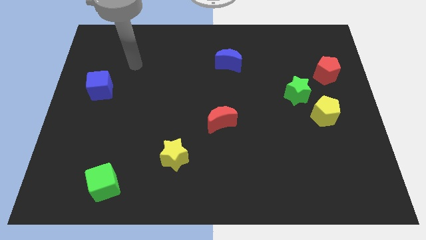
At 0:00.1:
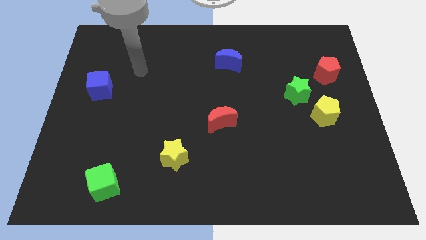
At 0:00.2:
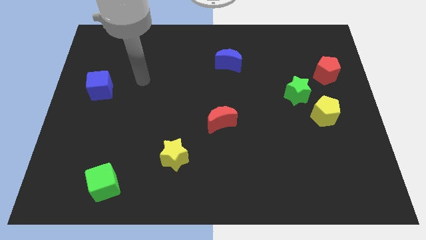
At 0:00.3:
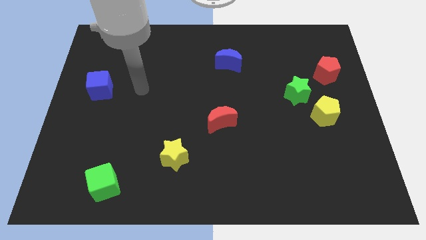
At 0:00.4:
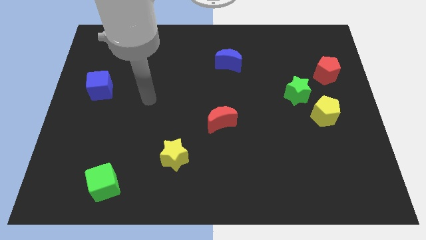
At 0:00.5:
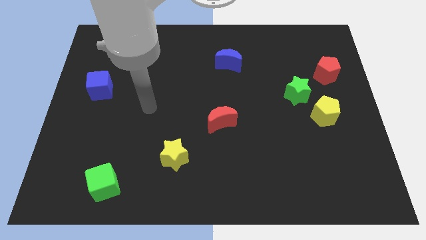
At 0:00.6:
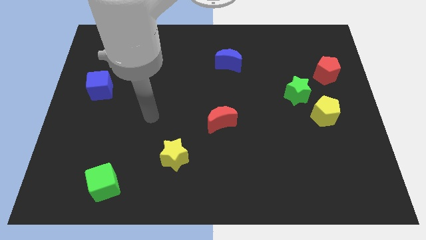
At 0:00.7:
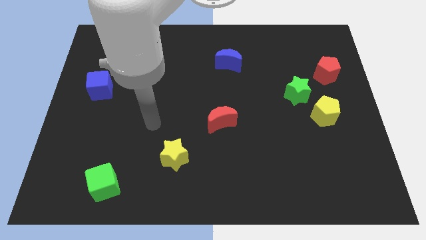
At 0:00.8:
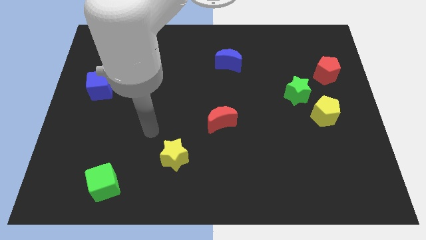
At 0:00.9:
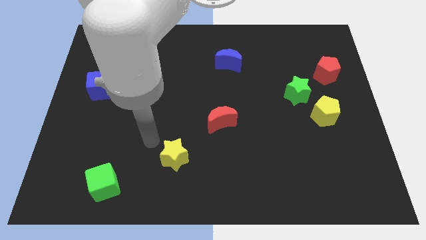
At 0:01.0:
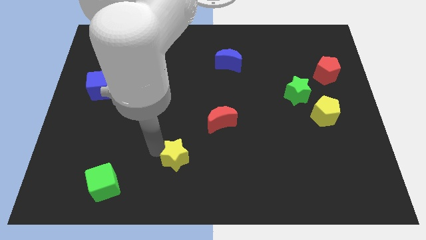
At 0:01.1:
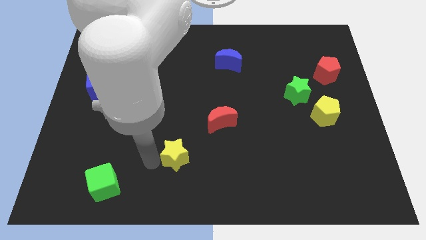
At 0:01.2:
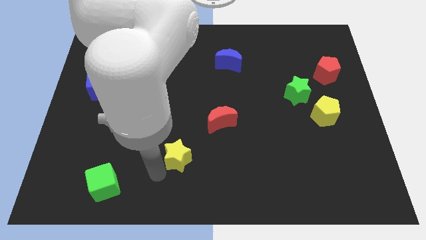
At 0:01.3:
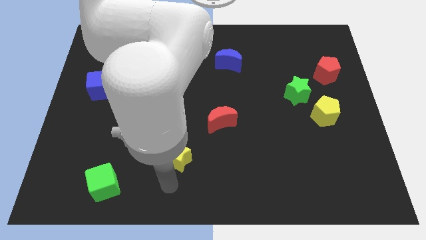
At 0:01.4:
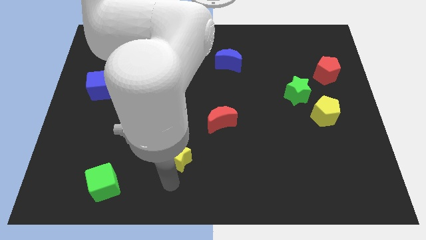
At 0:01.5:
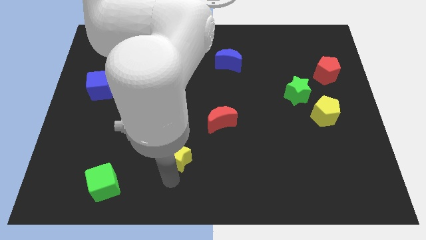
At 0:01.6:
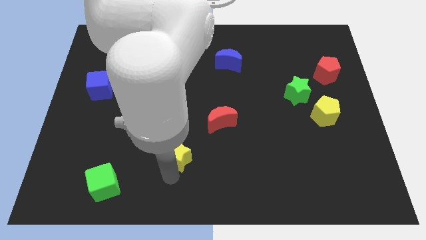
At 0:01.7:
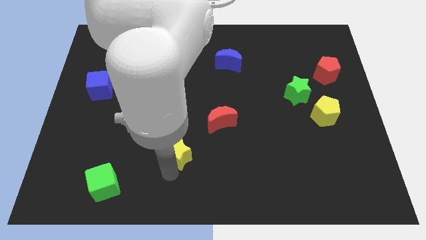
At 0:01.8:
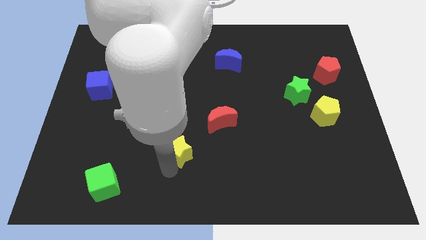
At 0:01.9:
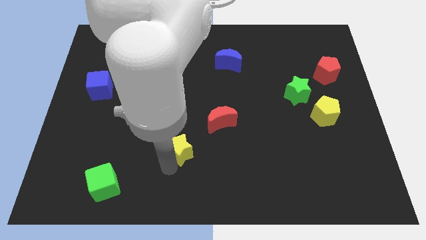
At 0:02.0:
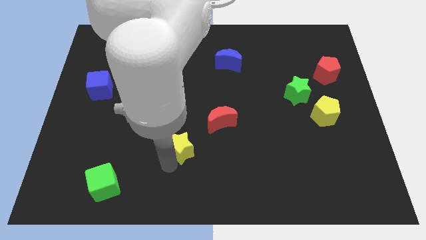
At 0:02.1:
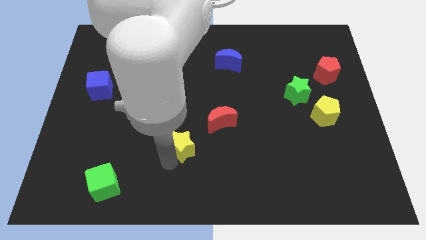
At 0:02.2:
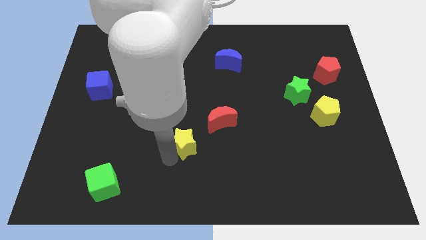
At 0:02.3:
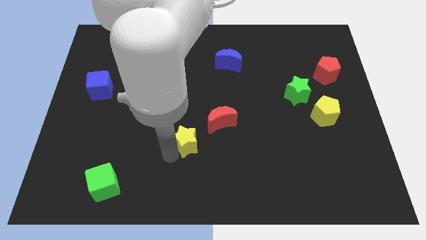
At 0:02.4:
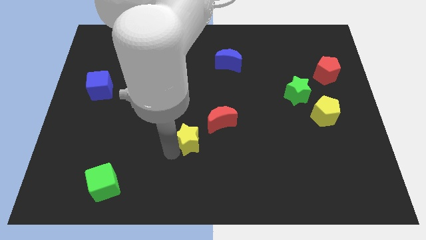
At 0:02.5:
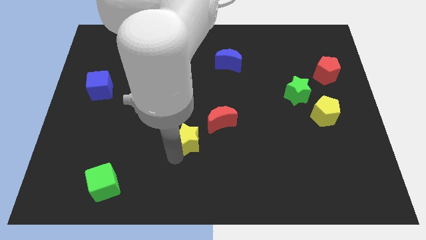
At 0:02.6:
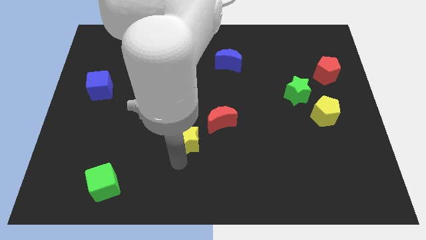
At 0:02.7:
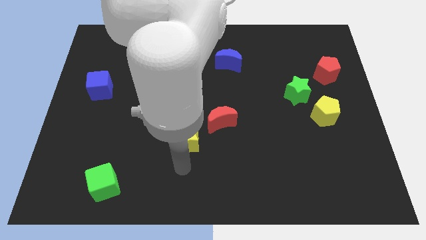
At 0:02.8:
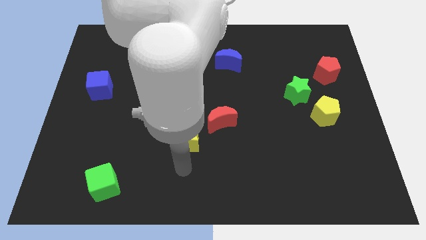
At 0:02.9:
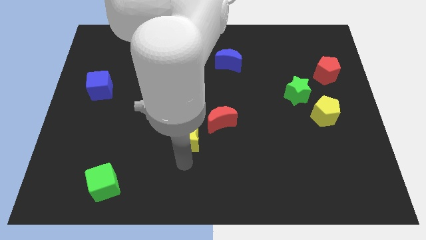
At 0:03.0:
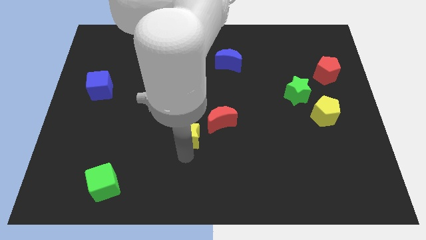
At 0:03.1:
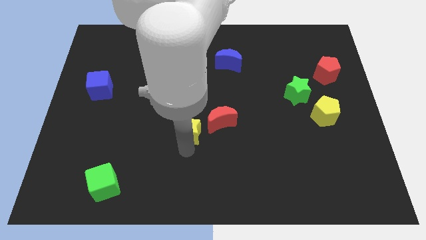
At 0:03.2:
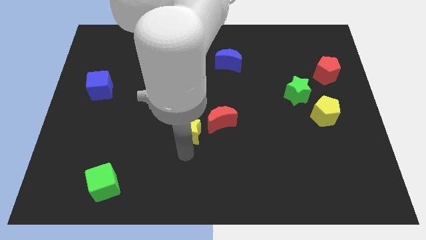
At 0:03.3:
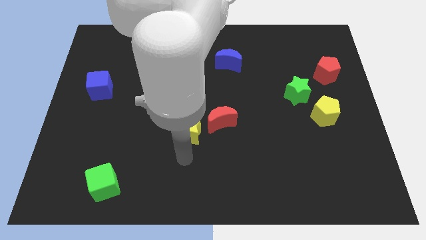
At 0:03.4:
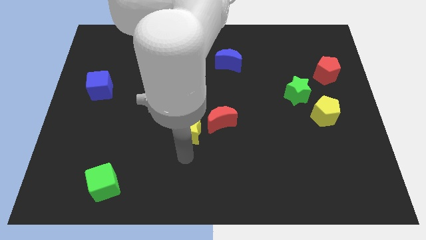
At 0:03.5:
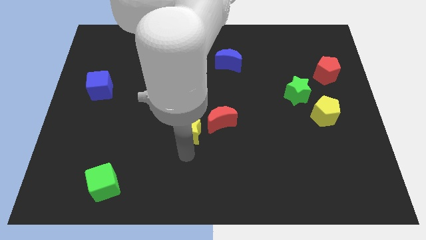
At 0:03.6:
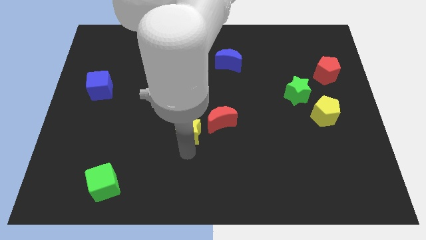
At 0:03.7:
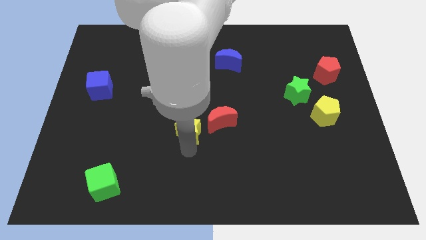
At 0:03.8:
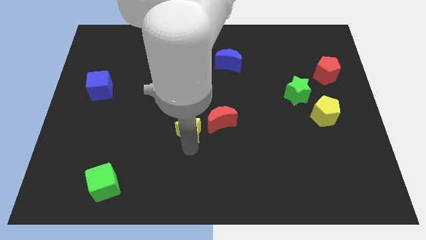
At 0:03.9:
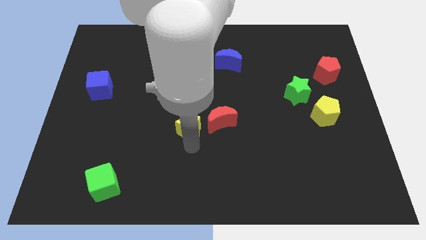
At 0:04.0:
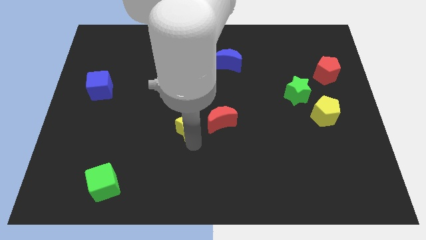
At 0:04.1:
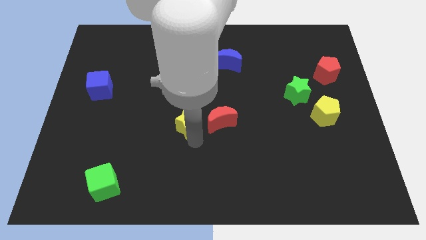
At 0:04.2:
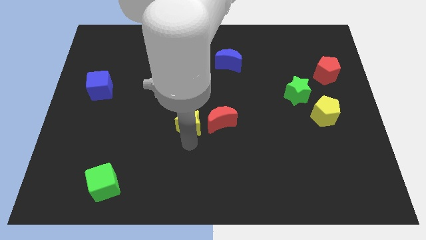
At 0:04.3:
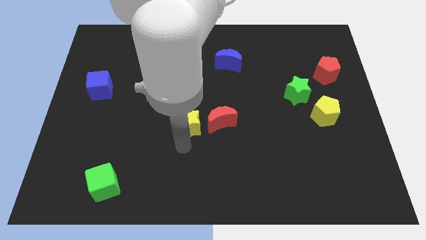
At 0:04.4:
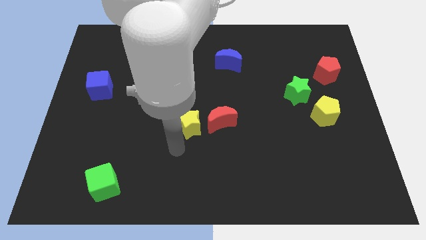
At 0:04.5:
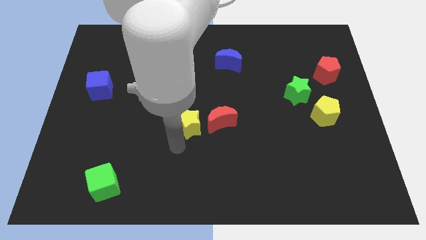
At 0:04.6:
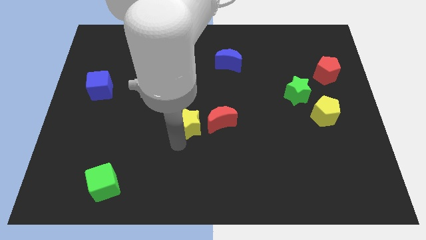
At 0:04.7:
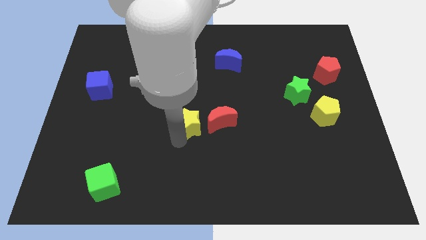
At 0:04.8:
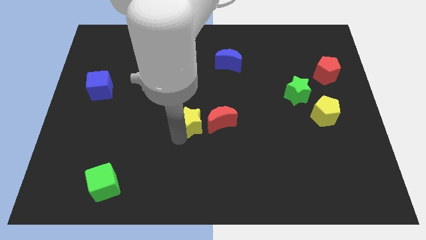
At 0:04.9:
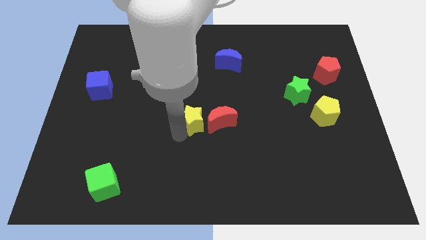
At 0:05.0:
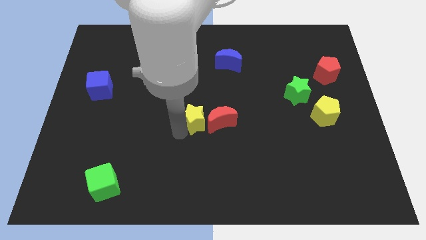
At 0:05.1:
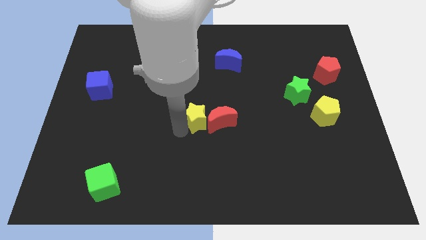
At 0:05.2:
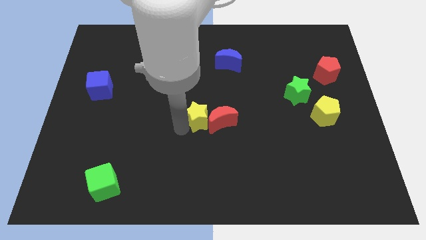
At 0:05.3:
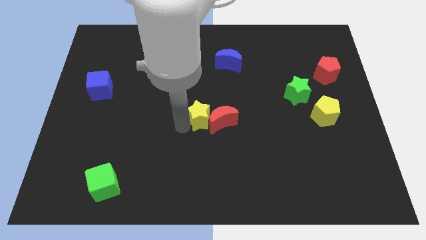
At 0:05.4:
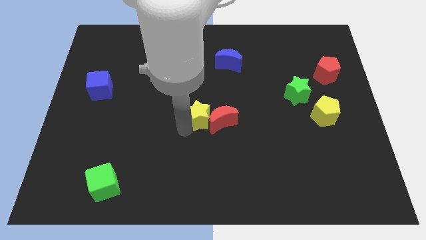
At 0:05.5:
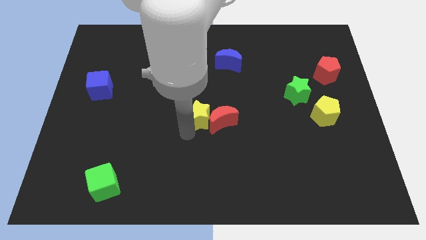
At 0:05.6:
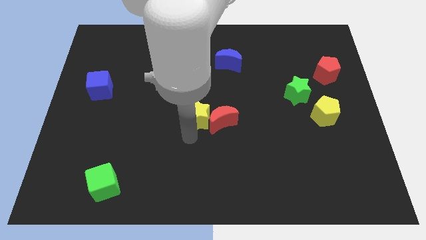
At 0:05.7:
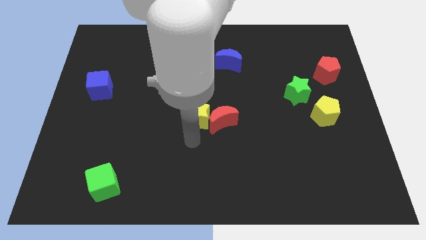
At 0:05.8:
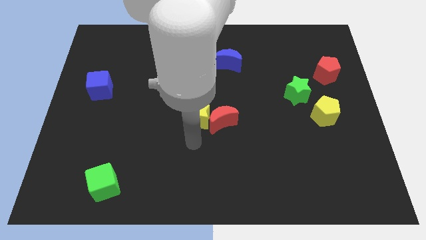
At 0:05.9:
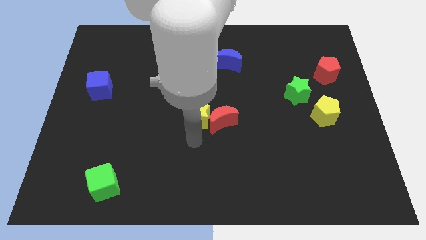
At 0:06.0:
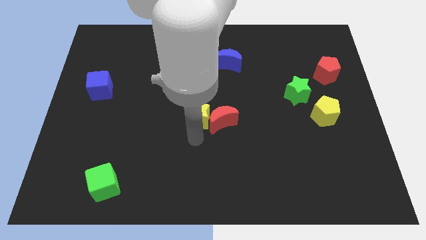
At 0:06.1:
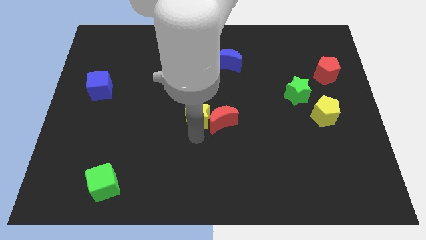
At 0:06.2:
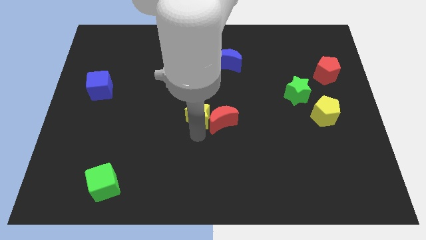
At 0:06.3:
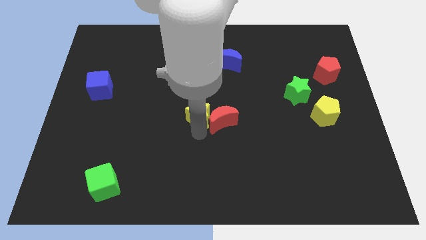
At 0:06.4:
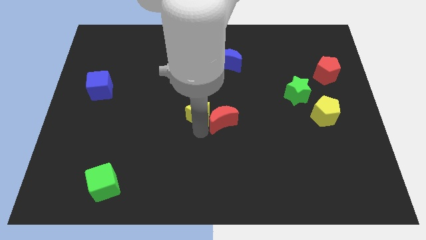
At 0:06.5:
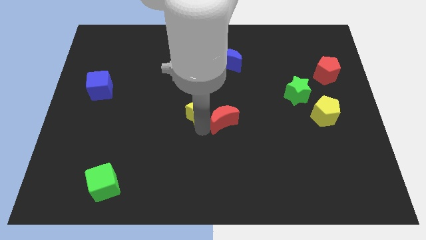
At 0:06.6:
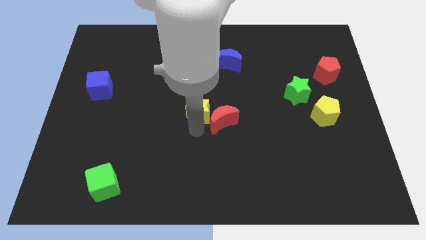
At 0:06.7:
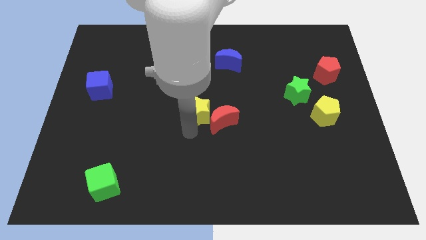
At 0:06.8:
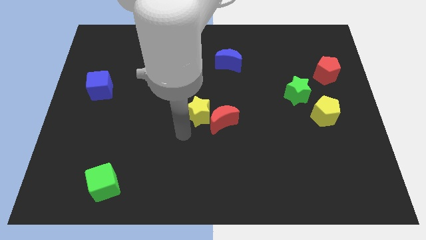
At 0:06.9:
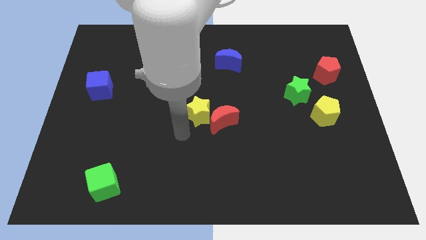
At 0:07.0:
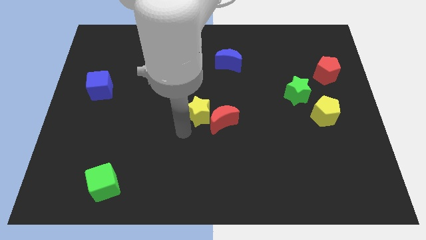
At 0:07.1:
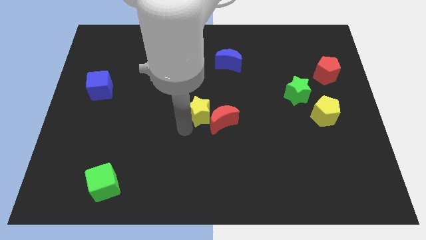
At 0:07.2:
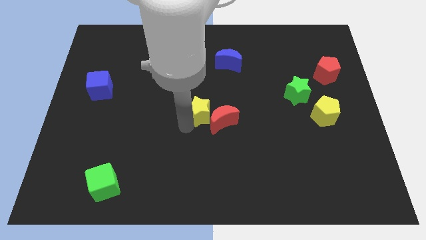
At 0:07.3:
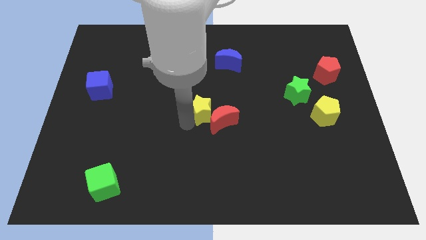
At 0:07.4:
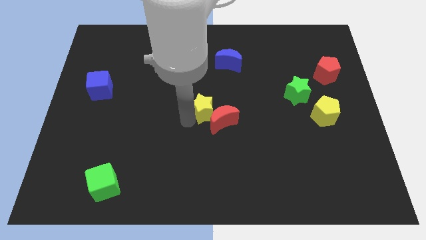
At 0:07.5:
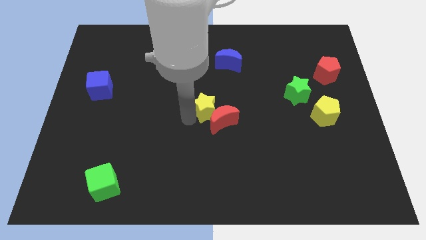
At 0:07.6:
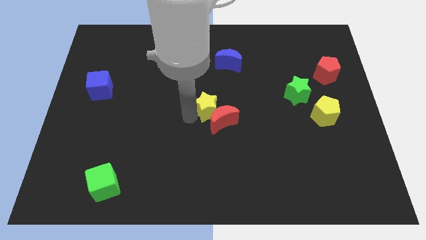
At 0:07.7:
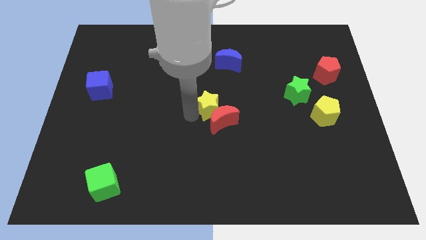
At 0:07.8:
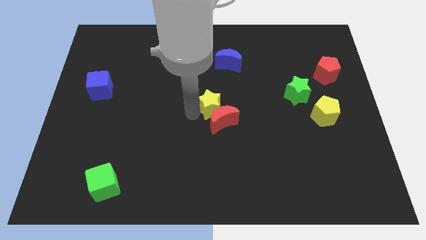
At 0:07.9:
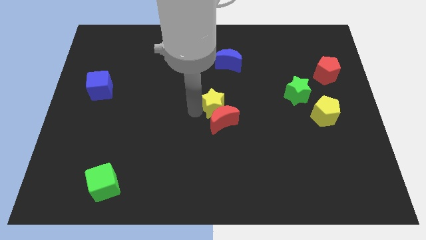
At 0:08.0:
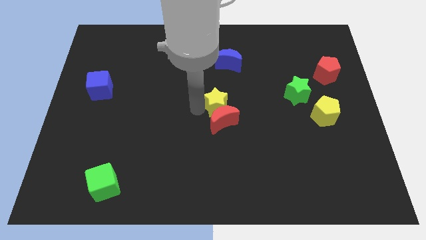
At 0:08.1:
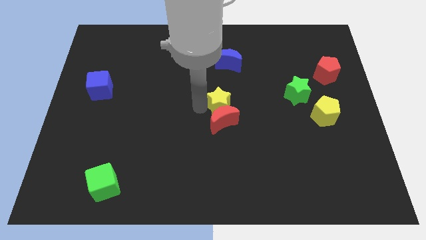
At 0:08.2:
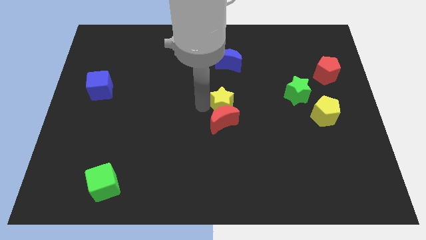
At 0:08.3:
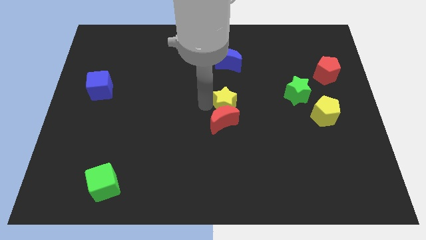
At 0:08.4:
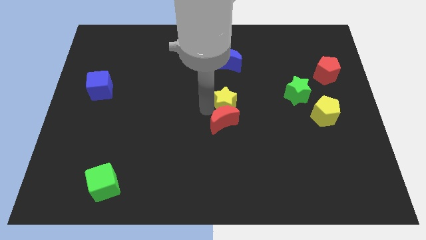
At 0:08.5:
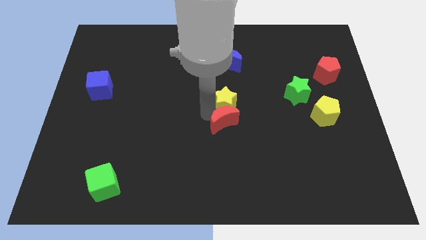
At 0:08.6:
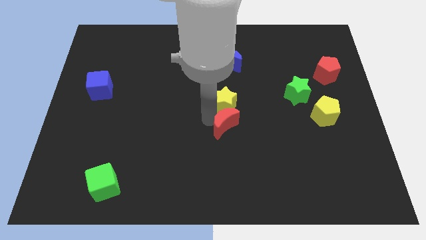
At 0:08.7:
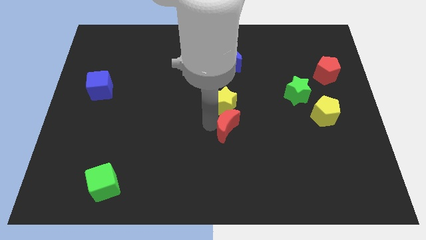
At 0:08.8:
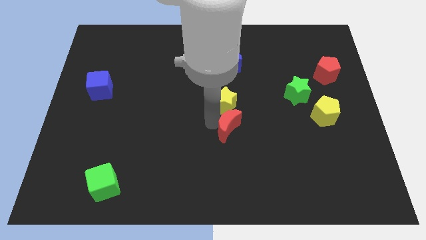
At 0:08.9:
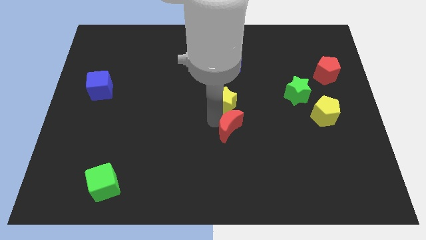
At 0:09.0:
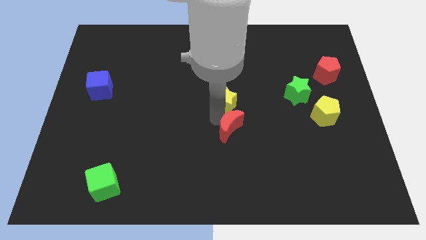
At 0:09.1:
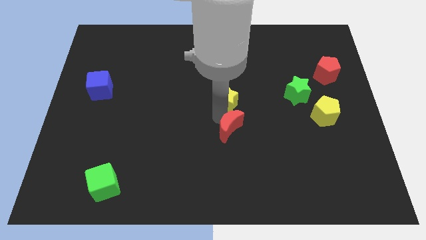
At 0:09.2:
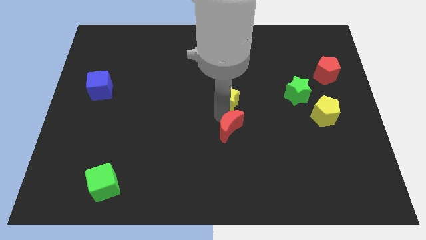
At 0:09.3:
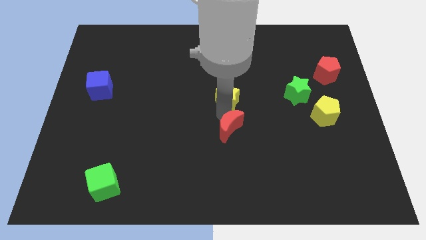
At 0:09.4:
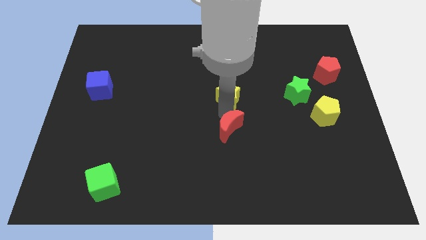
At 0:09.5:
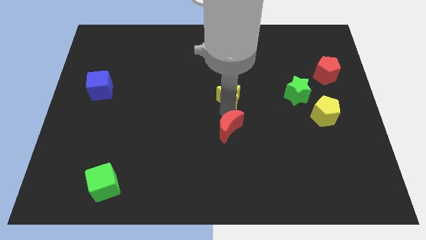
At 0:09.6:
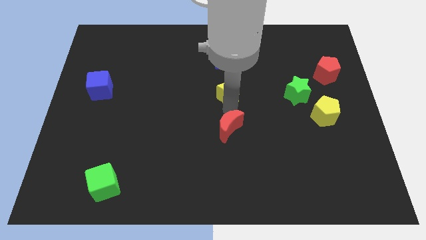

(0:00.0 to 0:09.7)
slide the yellow star up and then right
